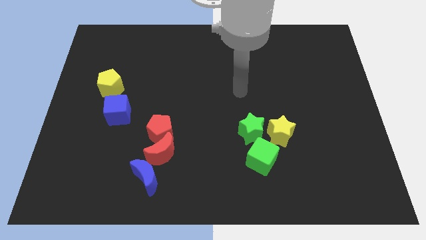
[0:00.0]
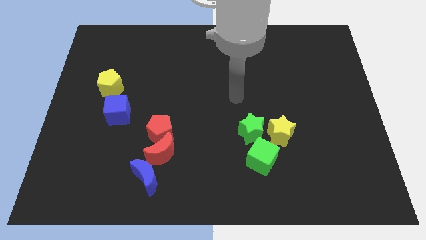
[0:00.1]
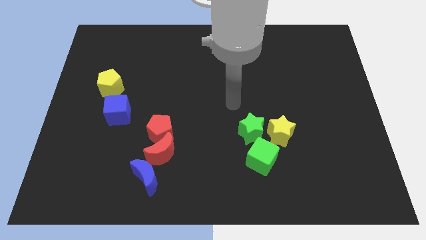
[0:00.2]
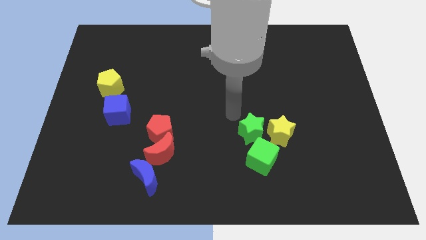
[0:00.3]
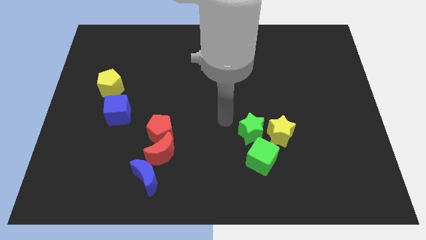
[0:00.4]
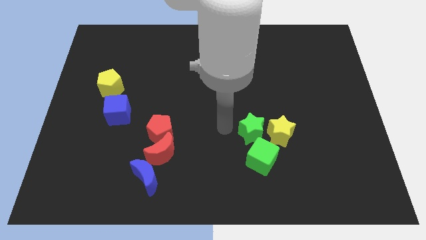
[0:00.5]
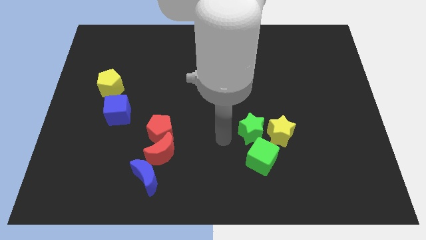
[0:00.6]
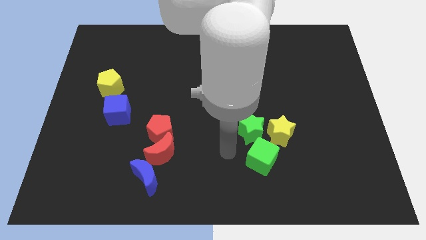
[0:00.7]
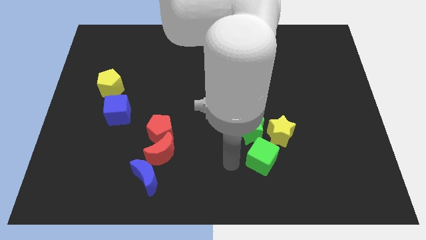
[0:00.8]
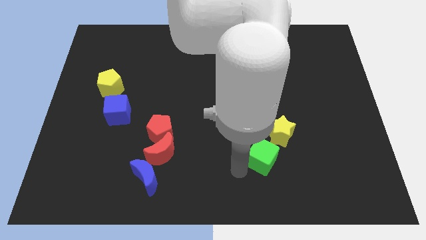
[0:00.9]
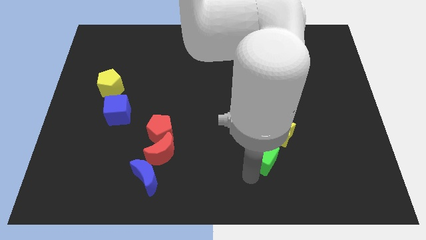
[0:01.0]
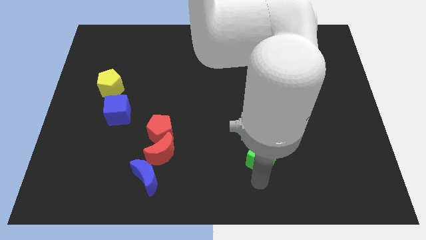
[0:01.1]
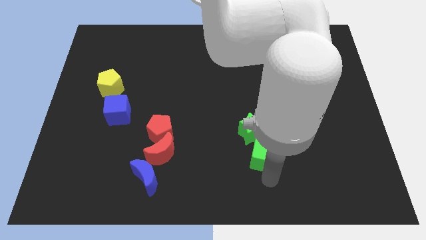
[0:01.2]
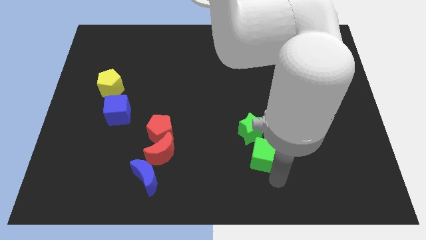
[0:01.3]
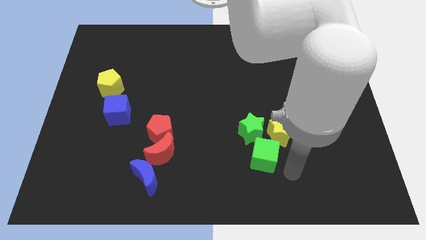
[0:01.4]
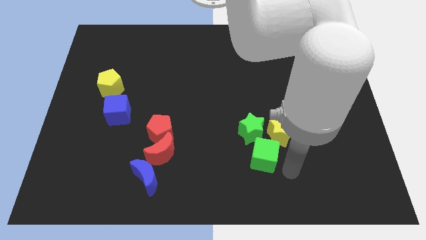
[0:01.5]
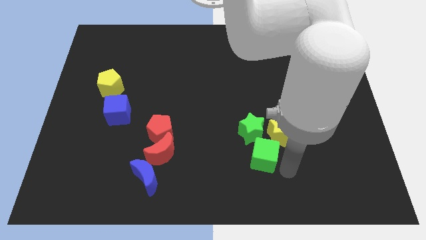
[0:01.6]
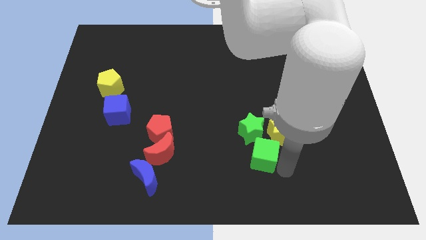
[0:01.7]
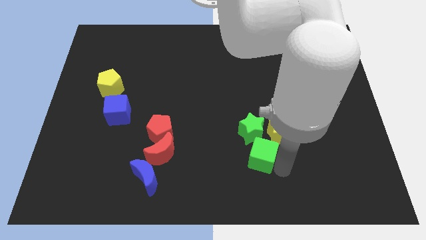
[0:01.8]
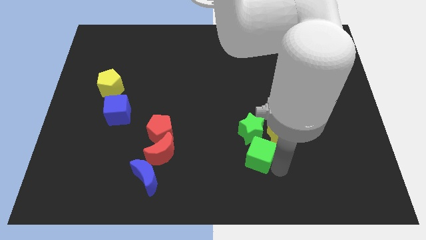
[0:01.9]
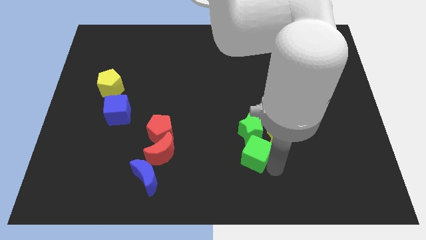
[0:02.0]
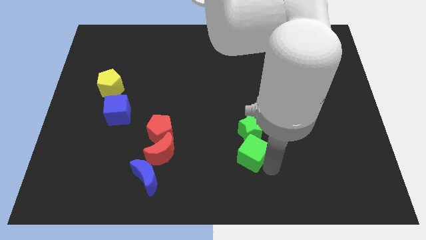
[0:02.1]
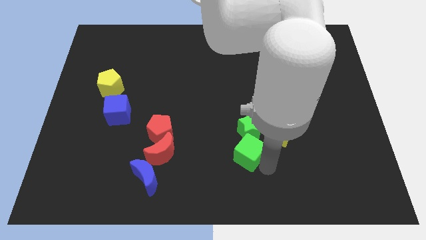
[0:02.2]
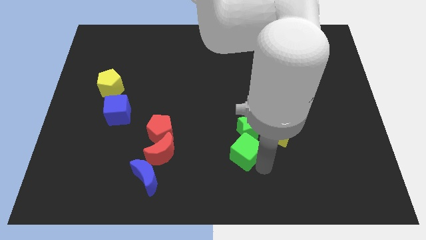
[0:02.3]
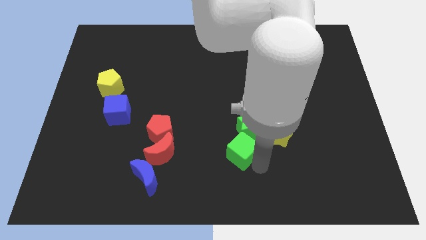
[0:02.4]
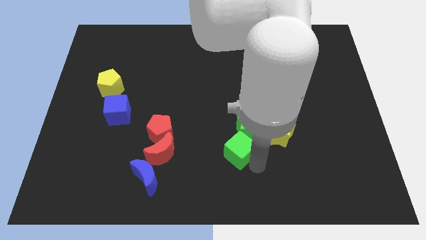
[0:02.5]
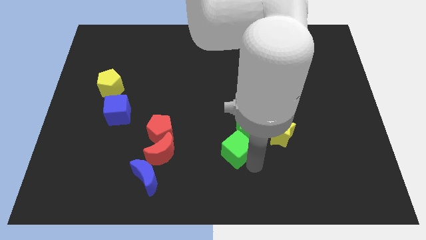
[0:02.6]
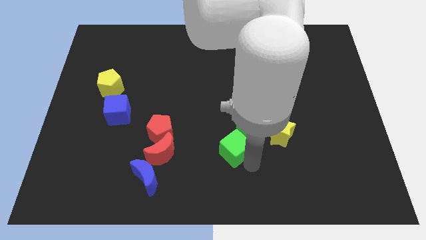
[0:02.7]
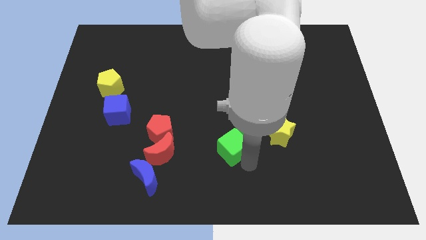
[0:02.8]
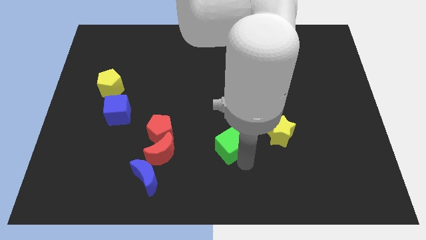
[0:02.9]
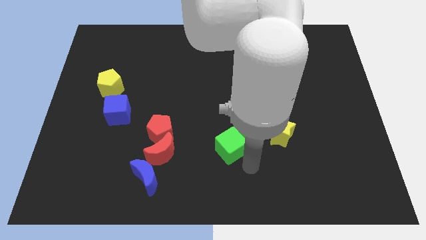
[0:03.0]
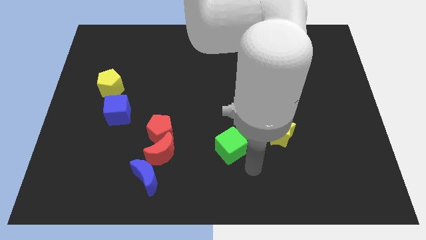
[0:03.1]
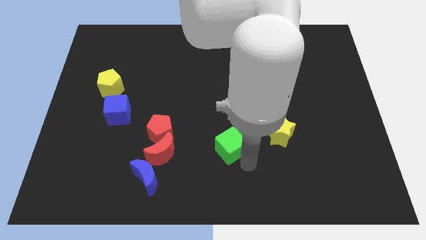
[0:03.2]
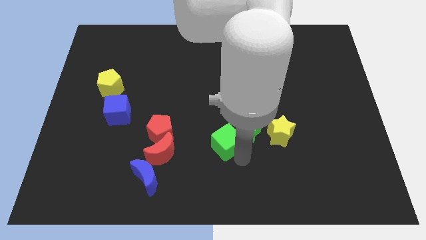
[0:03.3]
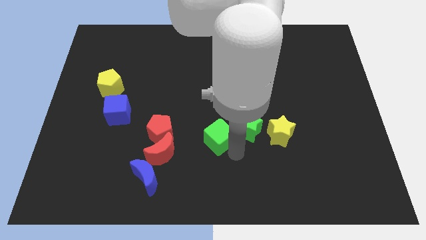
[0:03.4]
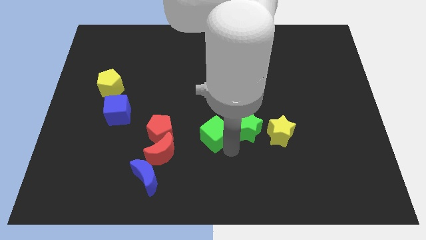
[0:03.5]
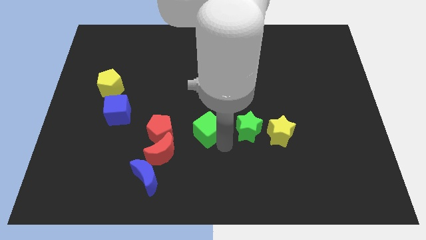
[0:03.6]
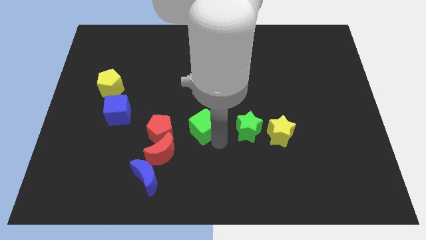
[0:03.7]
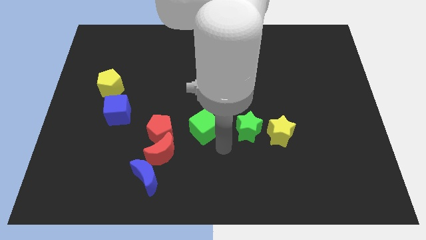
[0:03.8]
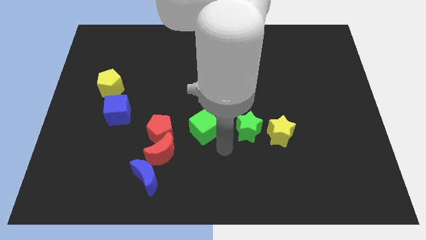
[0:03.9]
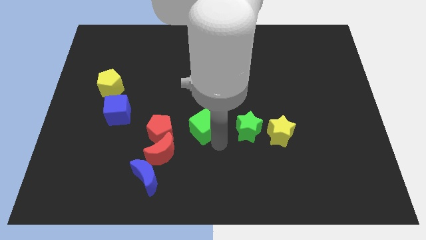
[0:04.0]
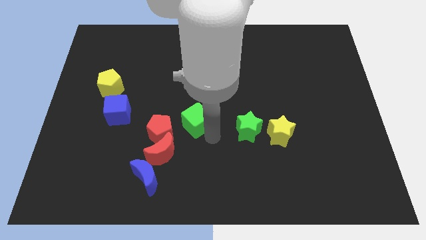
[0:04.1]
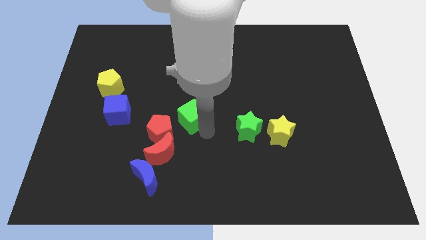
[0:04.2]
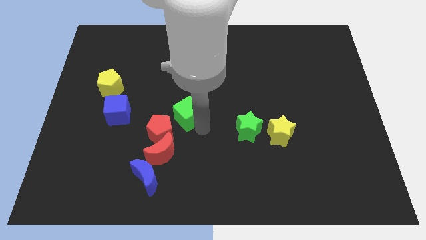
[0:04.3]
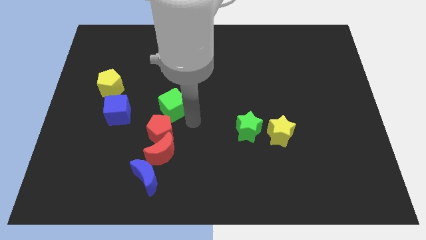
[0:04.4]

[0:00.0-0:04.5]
move the green cube upwards and to the left diagonally

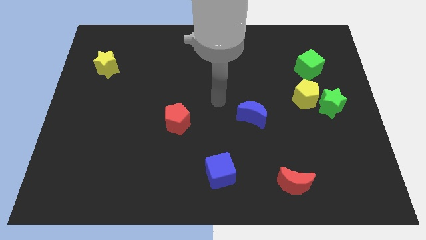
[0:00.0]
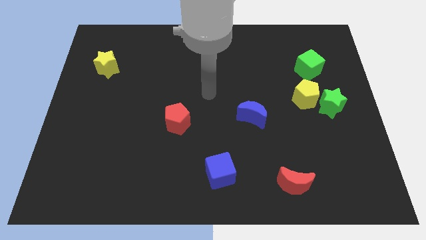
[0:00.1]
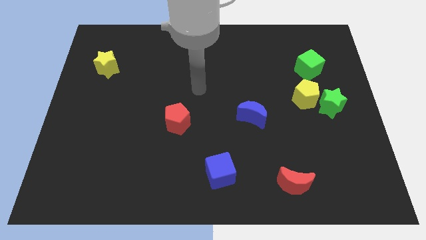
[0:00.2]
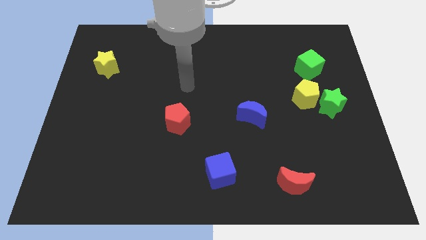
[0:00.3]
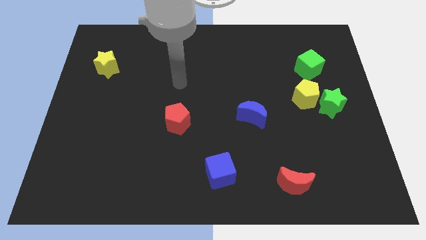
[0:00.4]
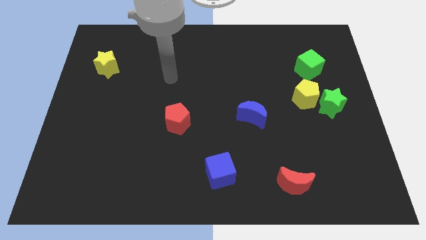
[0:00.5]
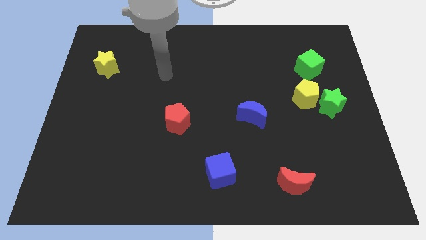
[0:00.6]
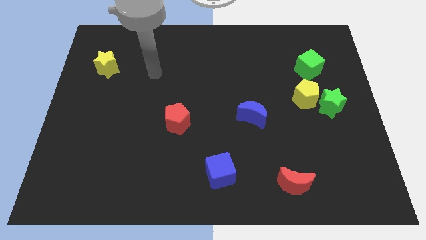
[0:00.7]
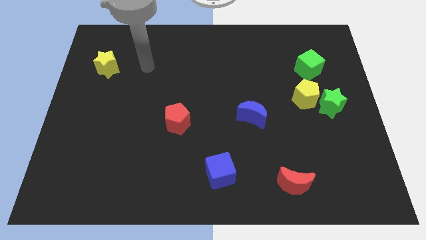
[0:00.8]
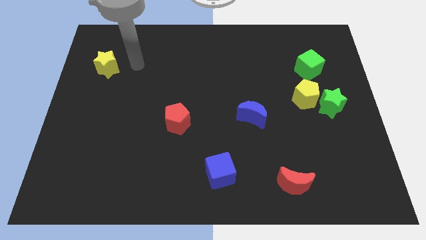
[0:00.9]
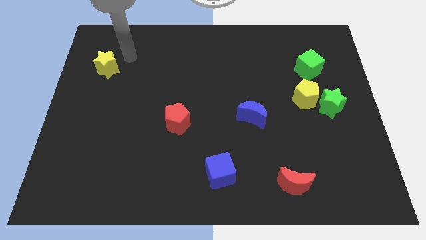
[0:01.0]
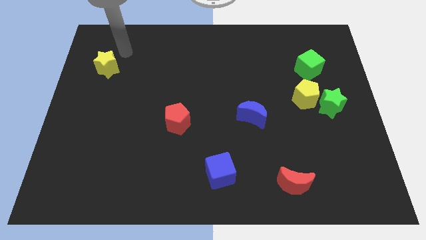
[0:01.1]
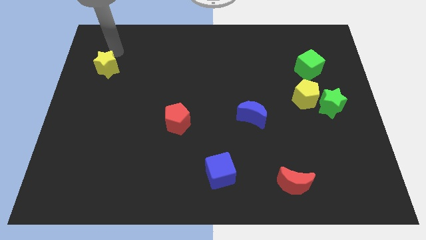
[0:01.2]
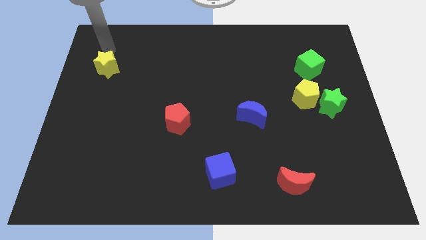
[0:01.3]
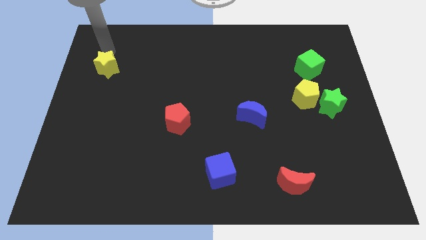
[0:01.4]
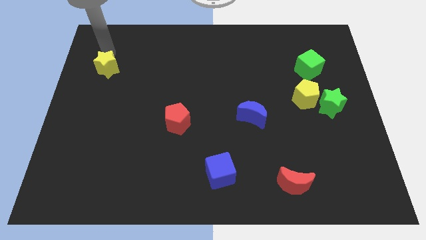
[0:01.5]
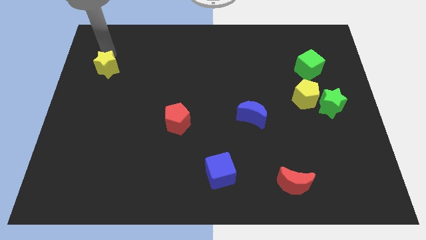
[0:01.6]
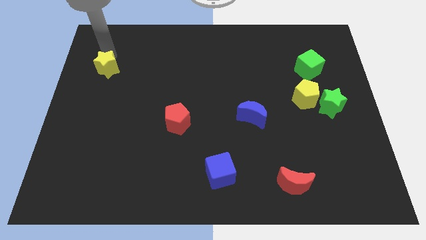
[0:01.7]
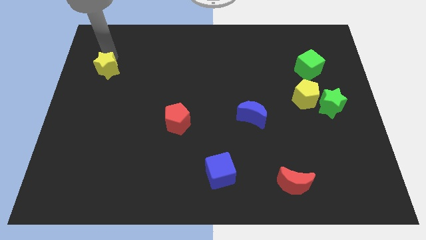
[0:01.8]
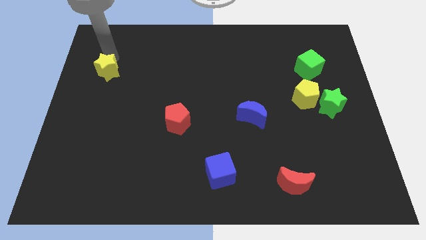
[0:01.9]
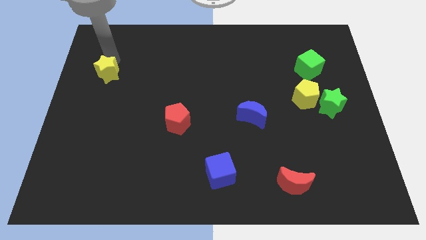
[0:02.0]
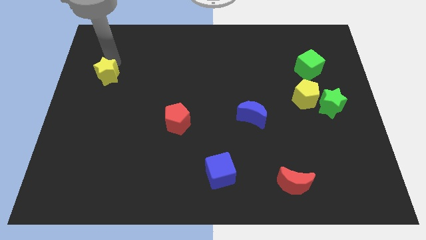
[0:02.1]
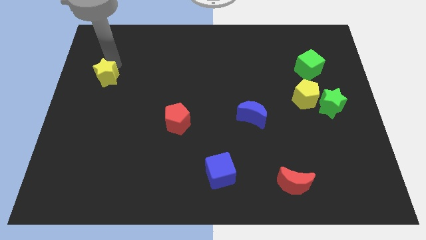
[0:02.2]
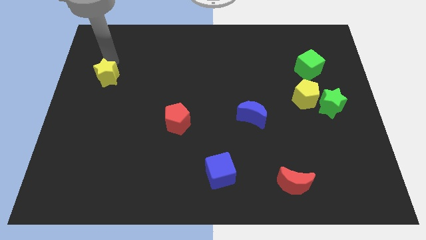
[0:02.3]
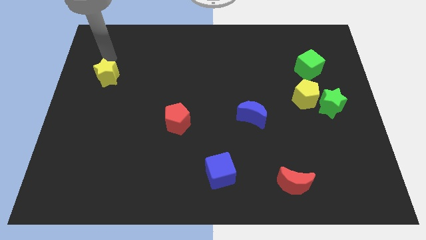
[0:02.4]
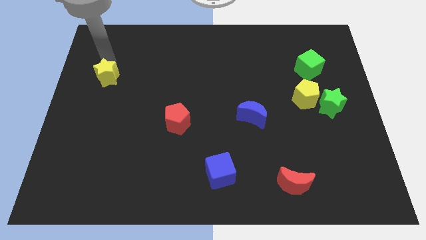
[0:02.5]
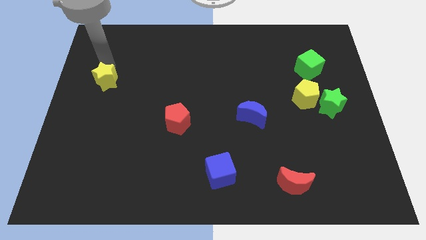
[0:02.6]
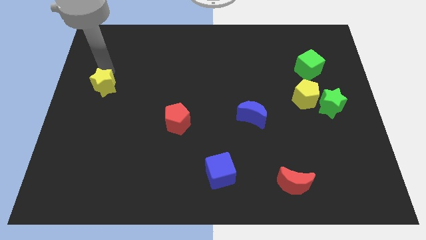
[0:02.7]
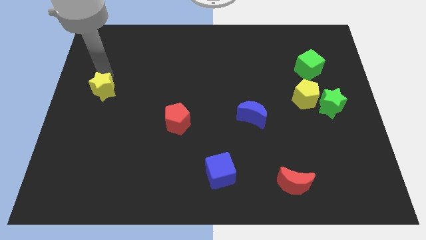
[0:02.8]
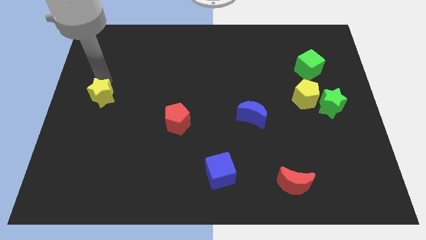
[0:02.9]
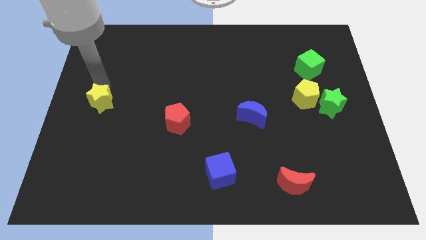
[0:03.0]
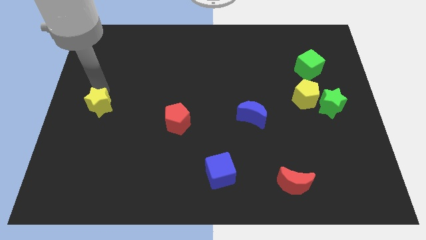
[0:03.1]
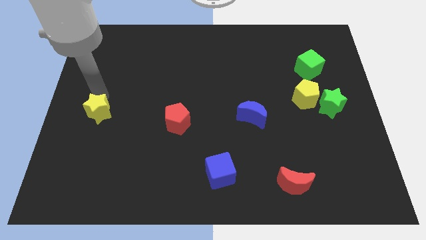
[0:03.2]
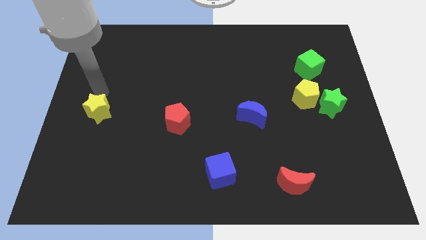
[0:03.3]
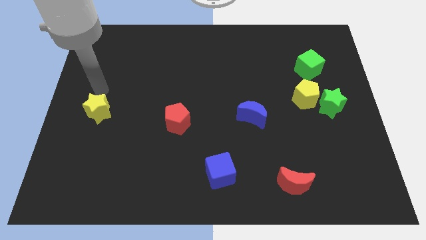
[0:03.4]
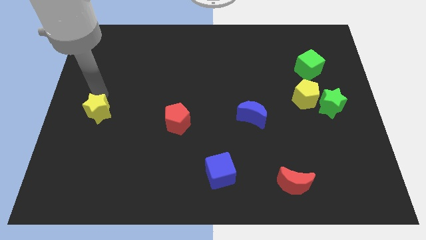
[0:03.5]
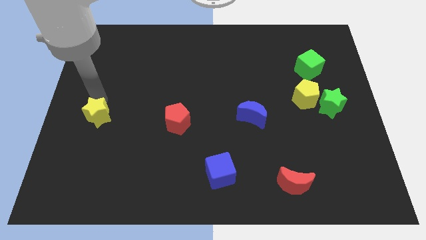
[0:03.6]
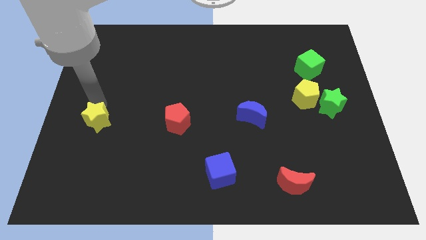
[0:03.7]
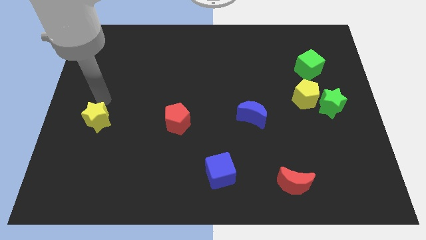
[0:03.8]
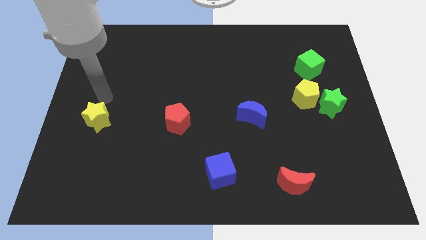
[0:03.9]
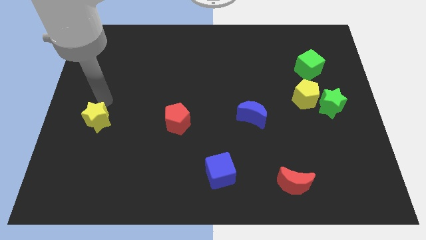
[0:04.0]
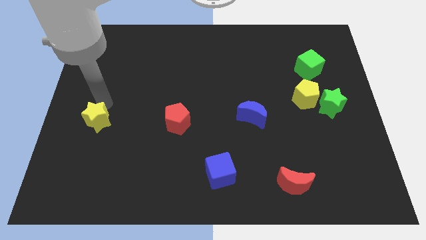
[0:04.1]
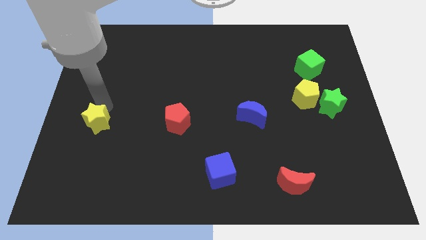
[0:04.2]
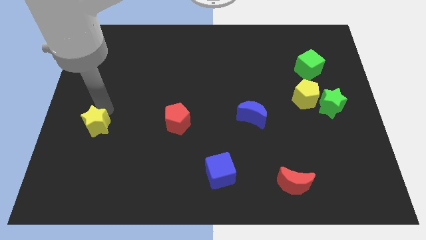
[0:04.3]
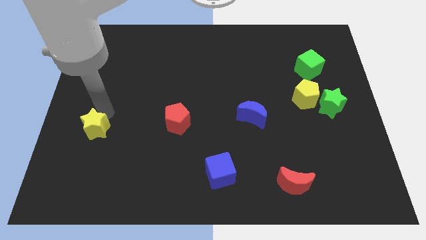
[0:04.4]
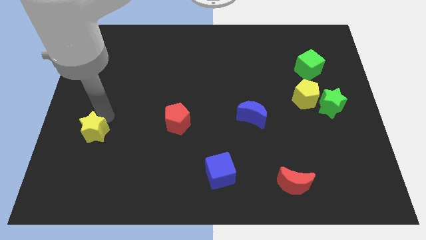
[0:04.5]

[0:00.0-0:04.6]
push the yellow star downwards
